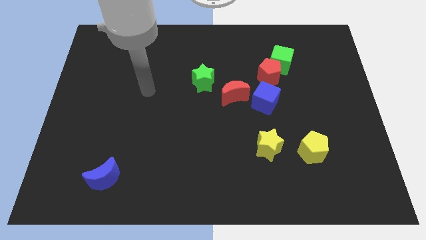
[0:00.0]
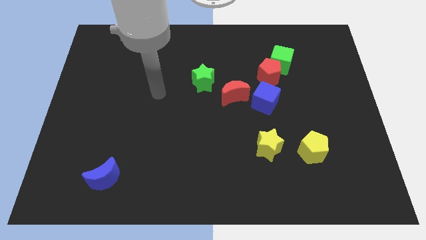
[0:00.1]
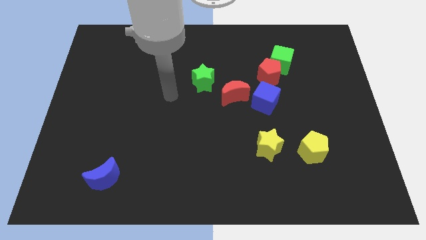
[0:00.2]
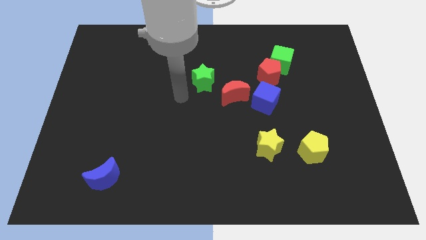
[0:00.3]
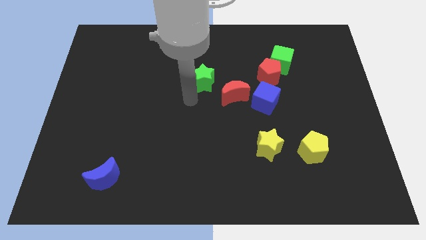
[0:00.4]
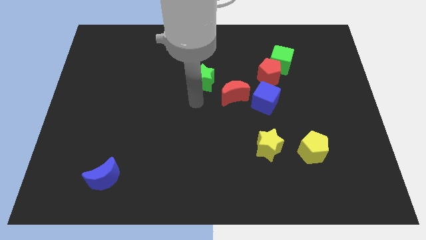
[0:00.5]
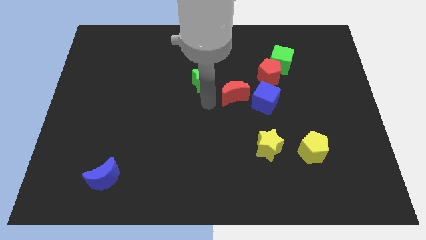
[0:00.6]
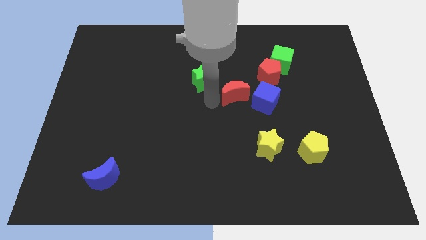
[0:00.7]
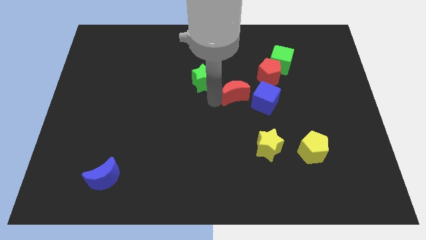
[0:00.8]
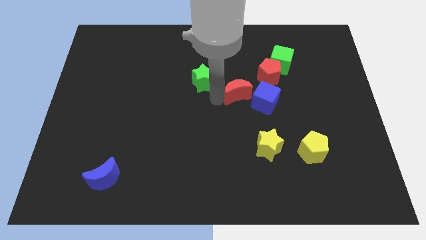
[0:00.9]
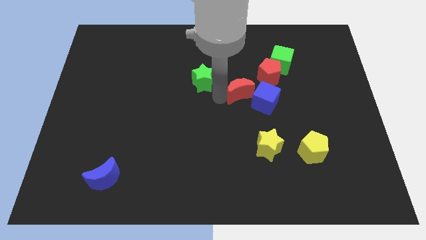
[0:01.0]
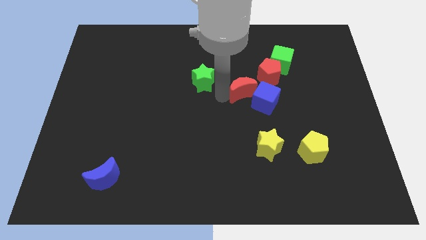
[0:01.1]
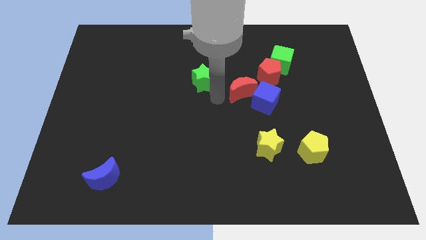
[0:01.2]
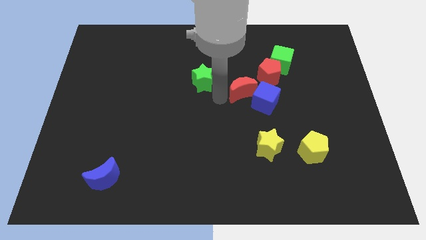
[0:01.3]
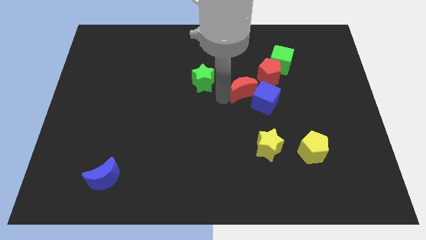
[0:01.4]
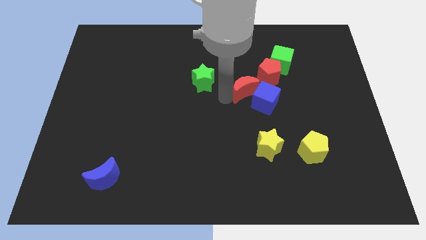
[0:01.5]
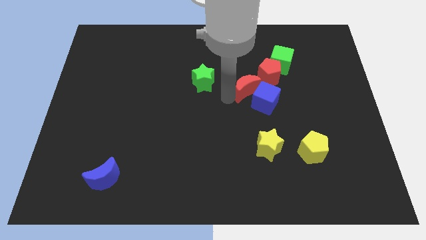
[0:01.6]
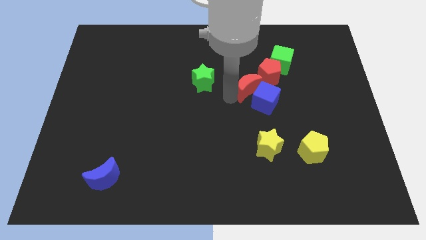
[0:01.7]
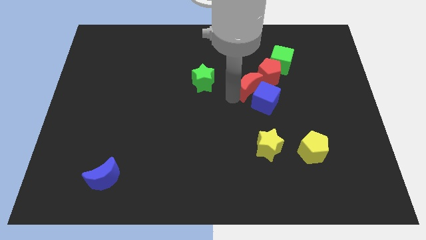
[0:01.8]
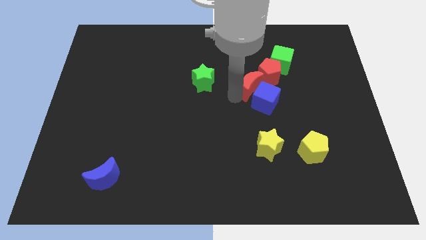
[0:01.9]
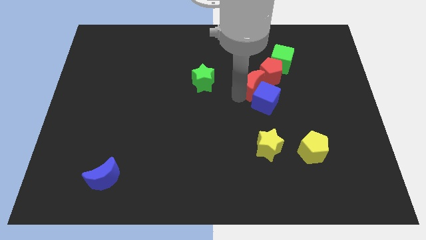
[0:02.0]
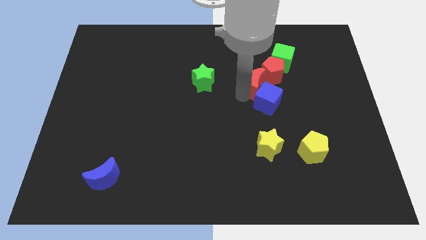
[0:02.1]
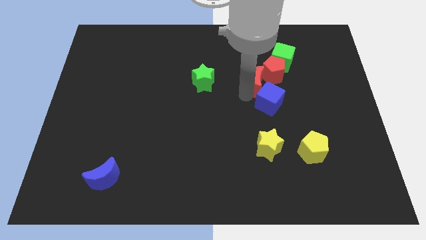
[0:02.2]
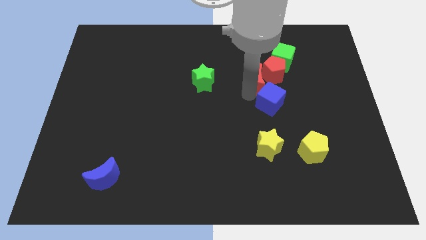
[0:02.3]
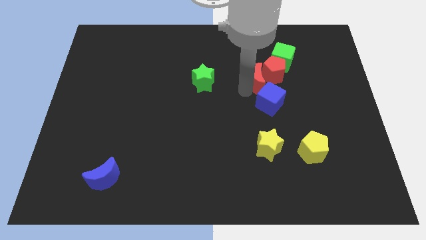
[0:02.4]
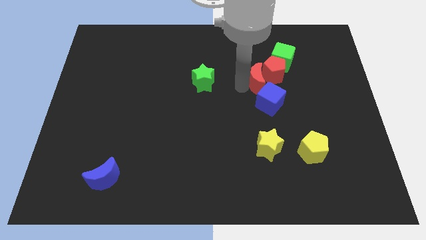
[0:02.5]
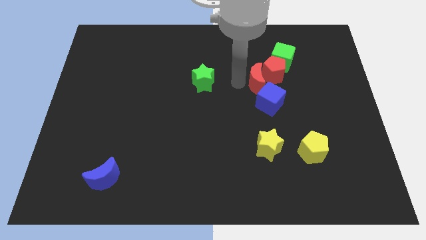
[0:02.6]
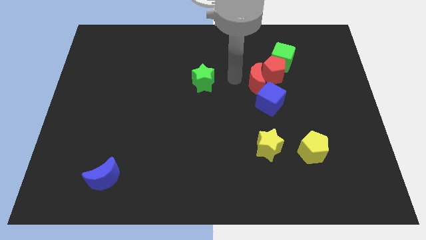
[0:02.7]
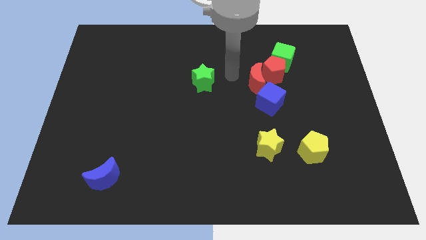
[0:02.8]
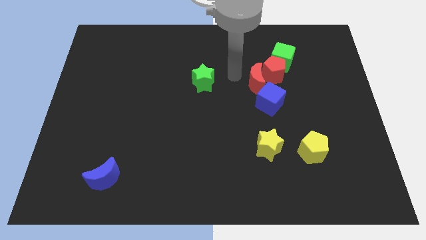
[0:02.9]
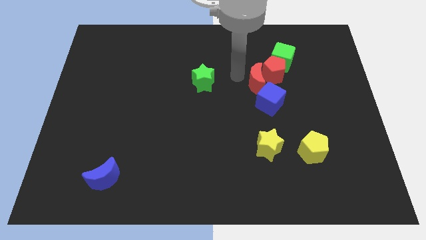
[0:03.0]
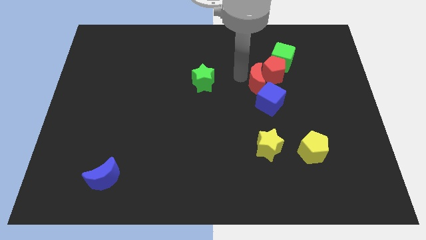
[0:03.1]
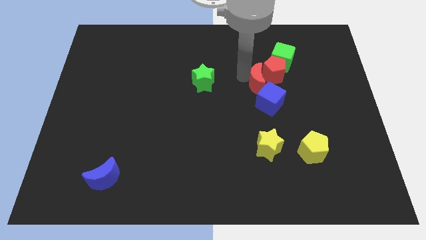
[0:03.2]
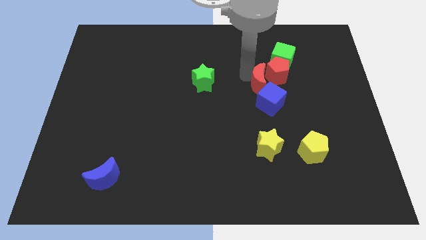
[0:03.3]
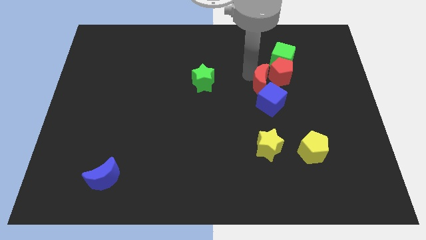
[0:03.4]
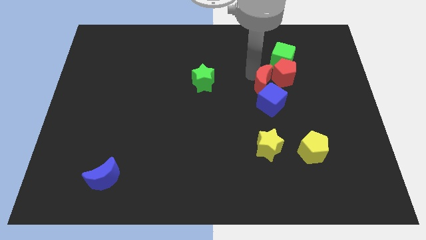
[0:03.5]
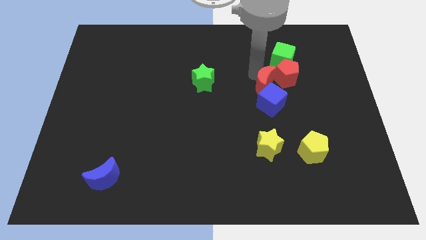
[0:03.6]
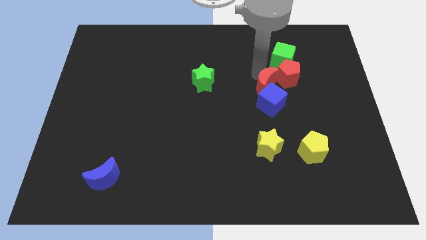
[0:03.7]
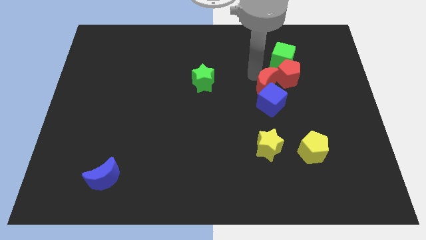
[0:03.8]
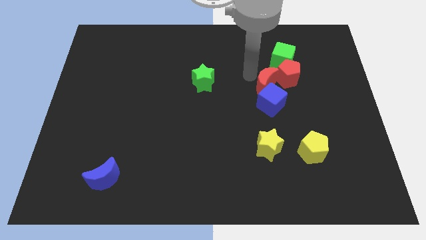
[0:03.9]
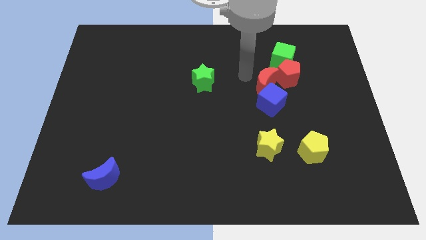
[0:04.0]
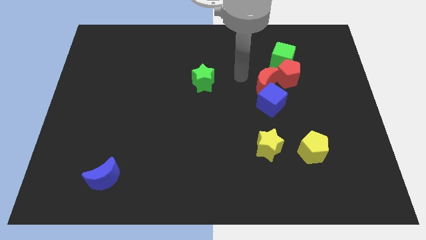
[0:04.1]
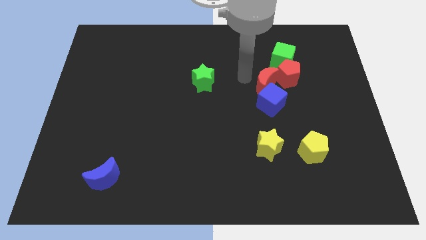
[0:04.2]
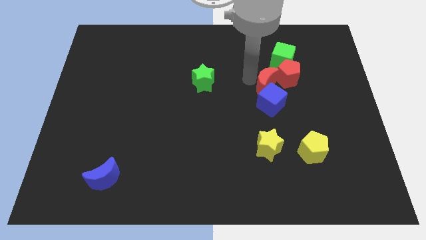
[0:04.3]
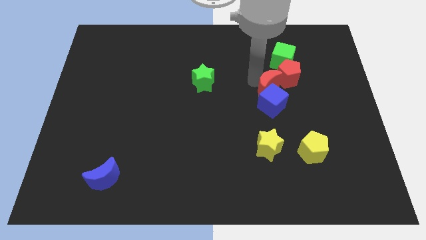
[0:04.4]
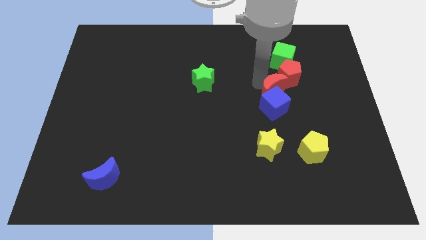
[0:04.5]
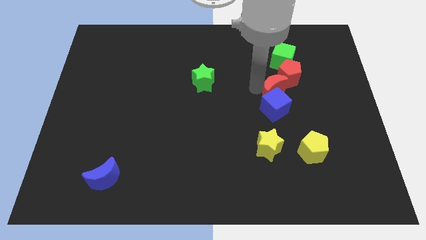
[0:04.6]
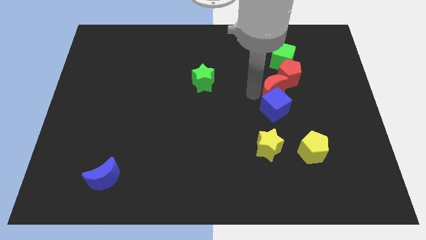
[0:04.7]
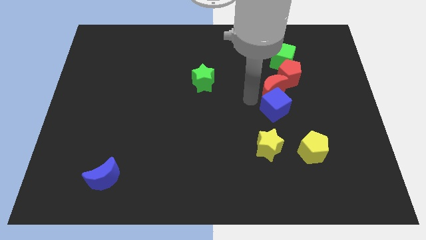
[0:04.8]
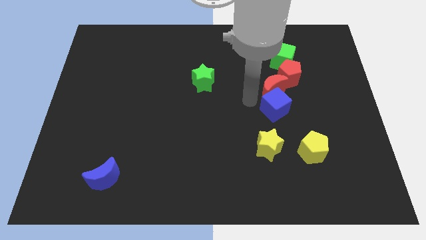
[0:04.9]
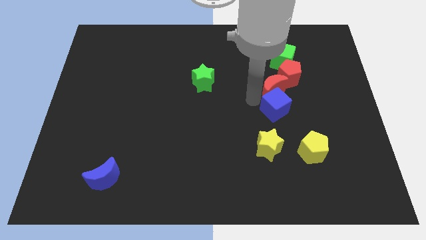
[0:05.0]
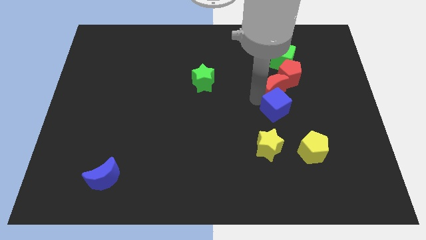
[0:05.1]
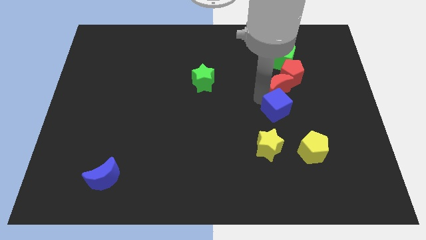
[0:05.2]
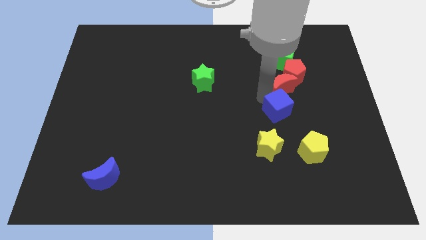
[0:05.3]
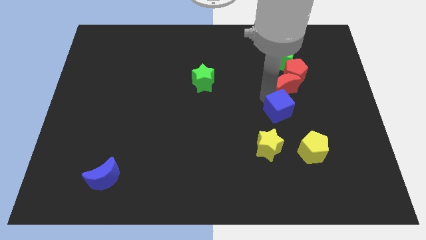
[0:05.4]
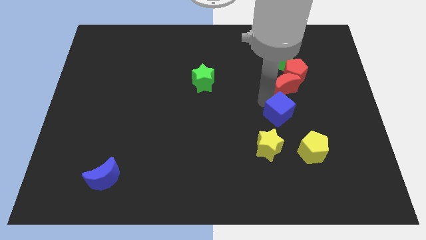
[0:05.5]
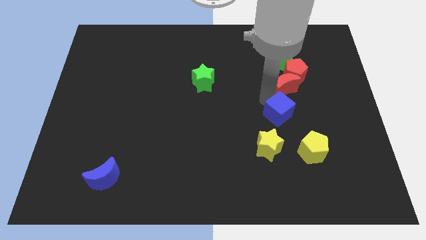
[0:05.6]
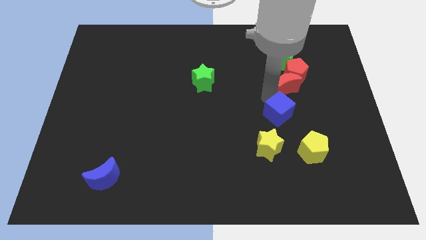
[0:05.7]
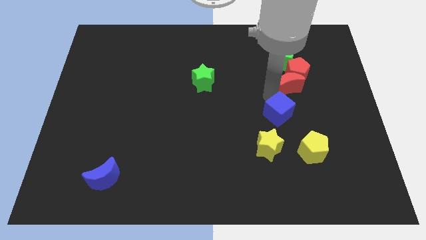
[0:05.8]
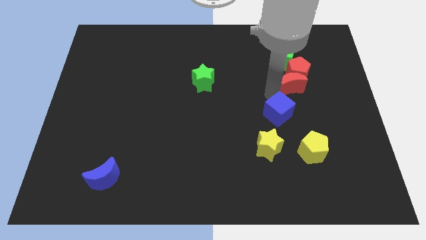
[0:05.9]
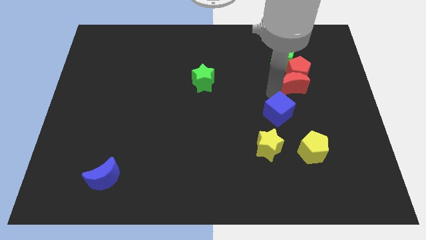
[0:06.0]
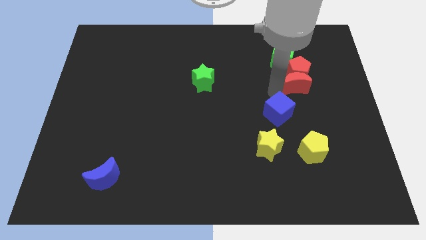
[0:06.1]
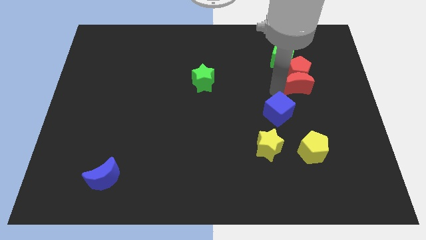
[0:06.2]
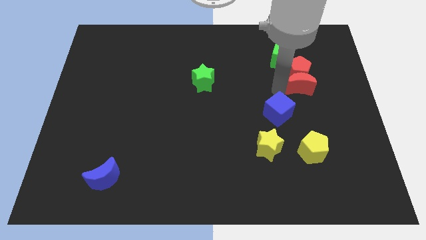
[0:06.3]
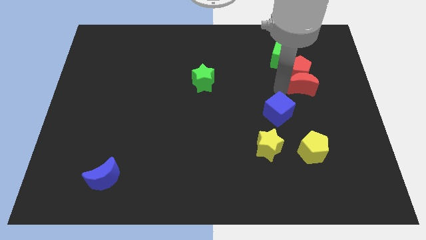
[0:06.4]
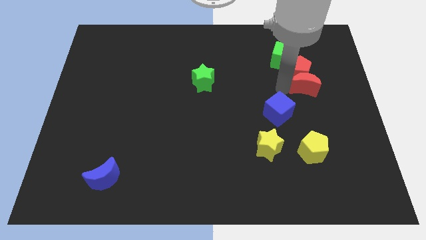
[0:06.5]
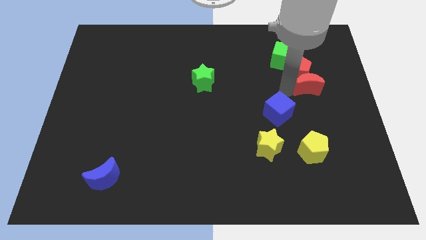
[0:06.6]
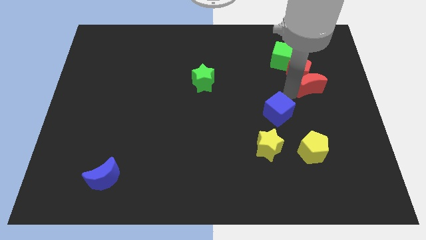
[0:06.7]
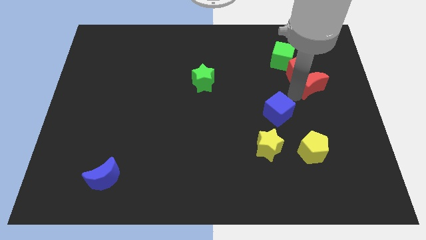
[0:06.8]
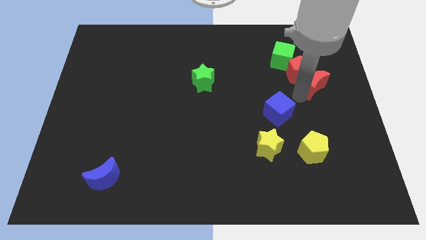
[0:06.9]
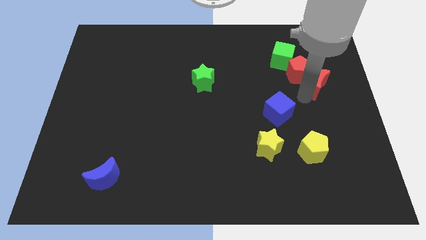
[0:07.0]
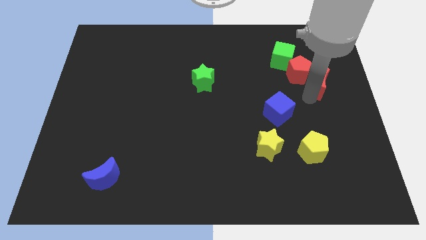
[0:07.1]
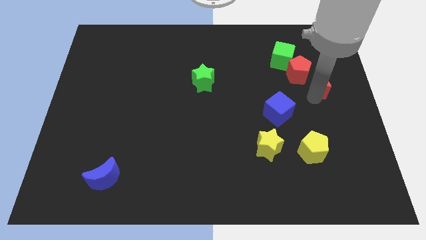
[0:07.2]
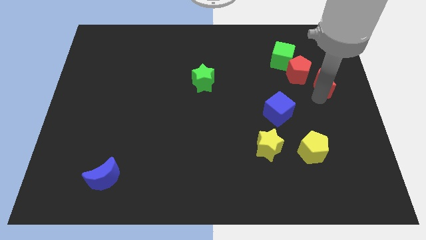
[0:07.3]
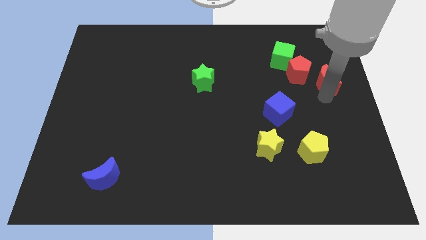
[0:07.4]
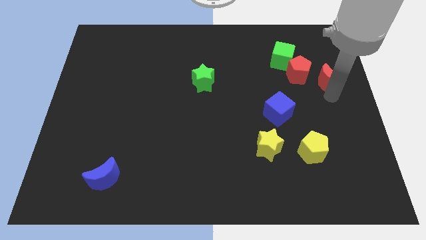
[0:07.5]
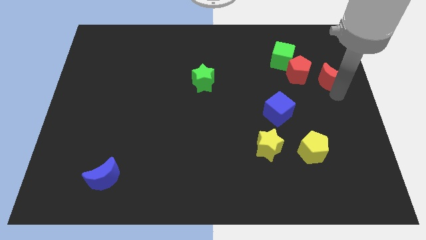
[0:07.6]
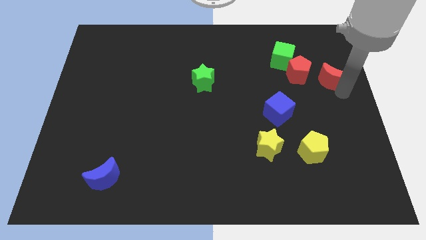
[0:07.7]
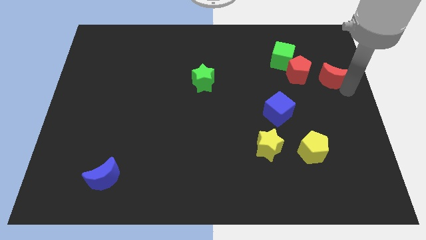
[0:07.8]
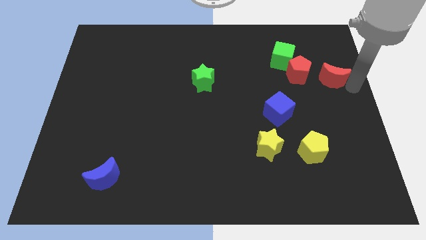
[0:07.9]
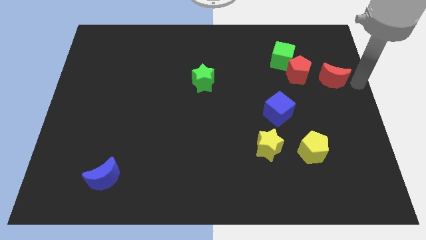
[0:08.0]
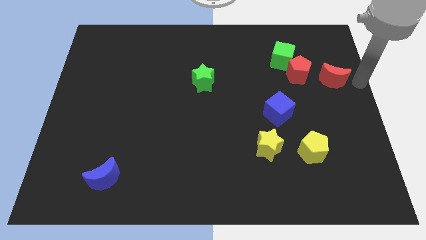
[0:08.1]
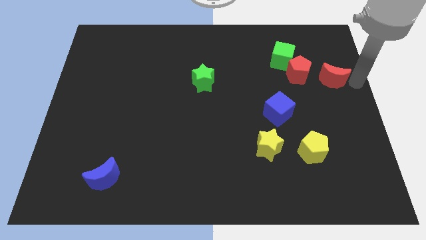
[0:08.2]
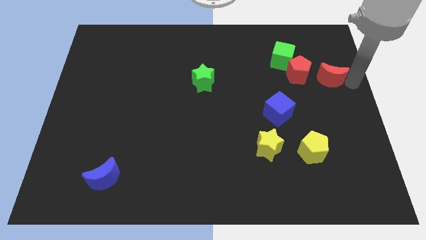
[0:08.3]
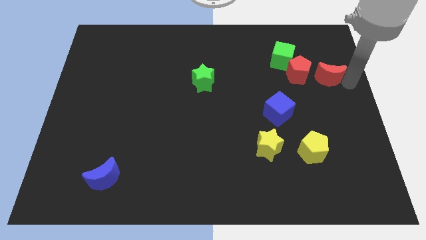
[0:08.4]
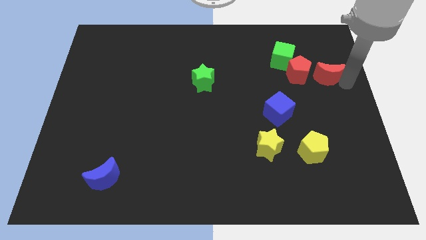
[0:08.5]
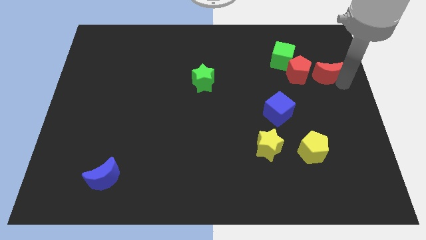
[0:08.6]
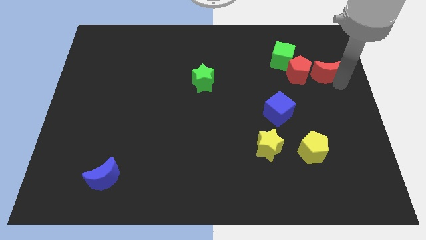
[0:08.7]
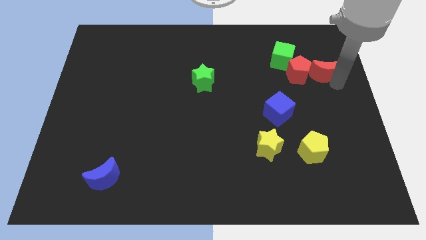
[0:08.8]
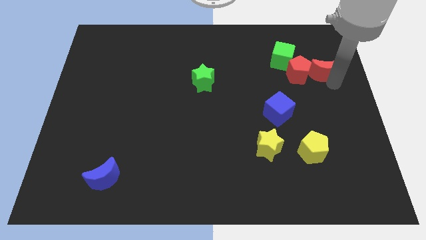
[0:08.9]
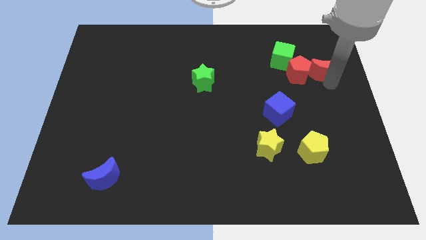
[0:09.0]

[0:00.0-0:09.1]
put the red moon to the right of the green cube
